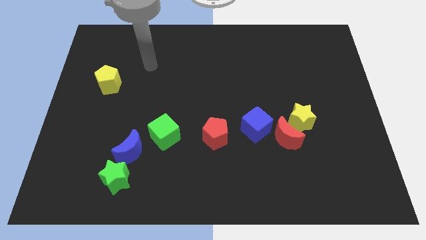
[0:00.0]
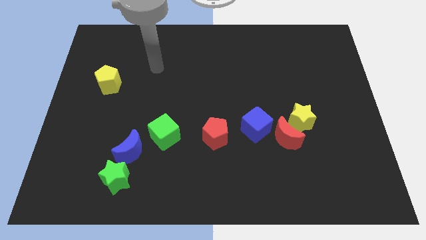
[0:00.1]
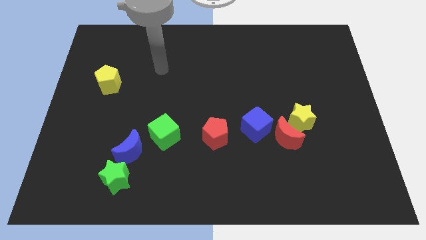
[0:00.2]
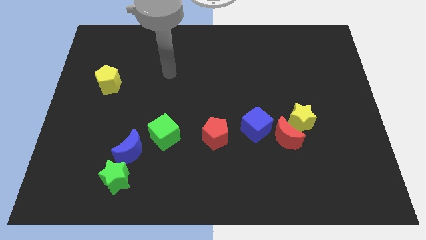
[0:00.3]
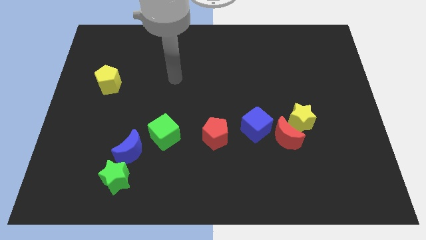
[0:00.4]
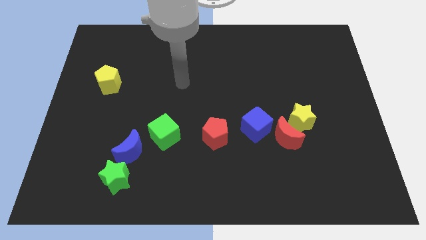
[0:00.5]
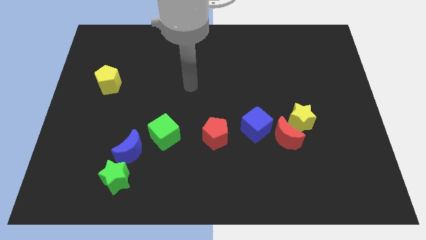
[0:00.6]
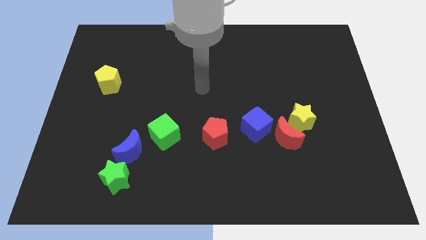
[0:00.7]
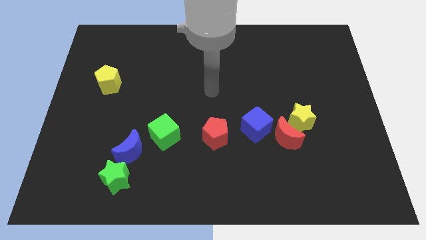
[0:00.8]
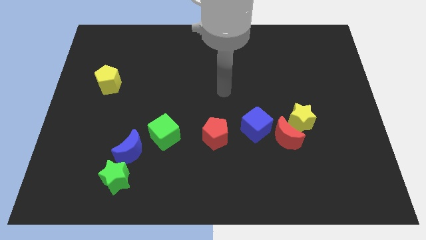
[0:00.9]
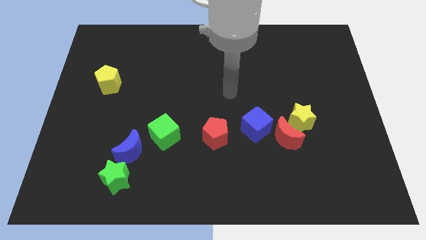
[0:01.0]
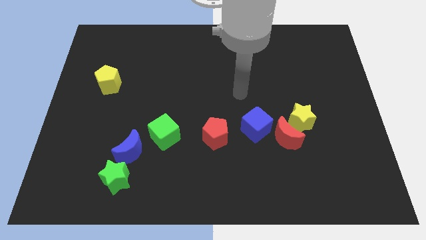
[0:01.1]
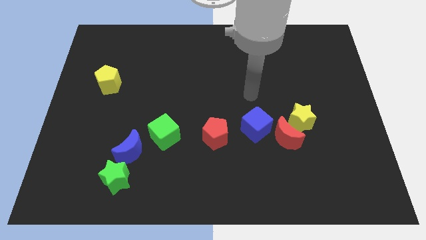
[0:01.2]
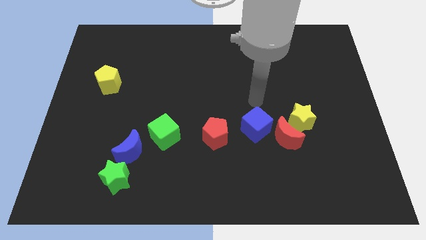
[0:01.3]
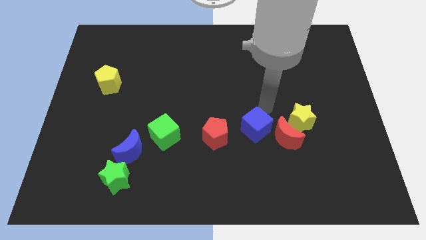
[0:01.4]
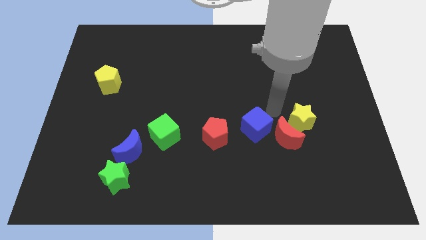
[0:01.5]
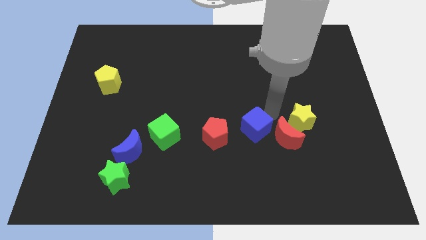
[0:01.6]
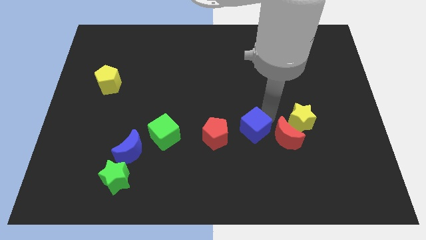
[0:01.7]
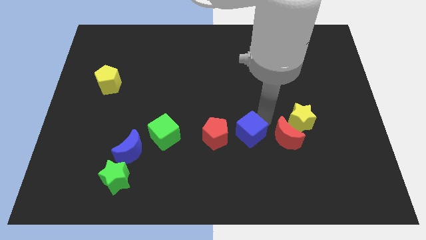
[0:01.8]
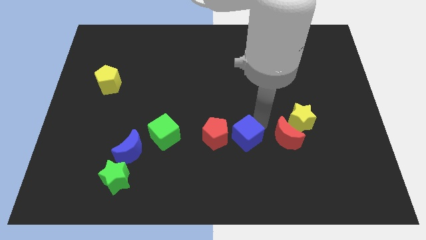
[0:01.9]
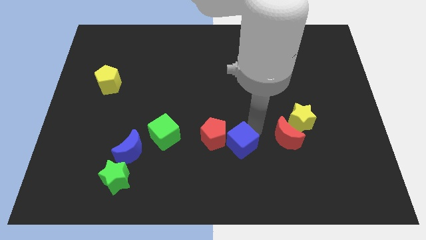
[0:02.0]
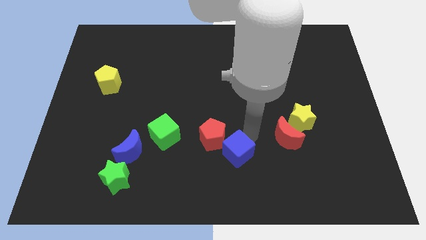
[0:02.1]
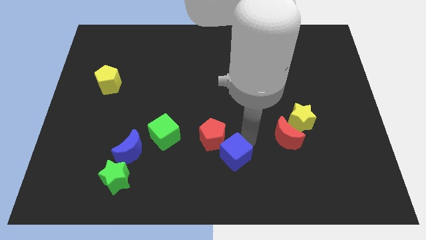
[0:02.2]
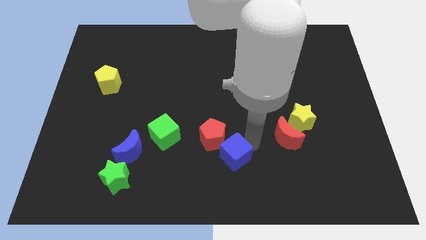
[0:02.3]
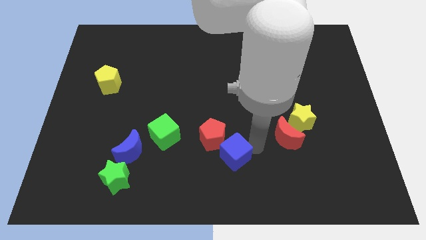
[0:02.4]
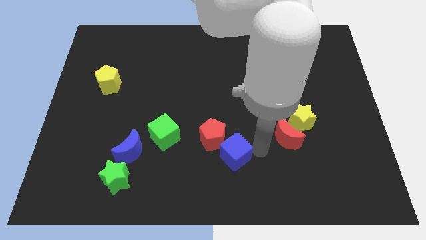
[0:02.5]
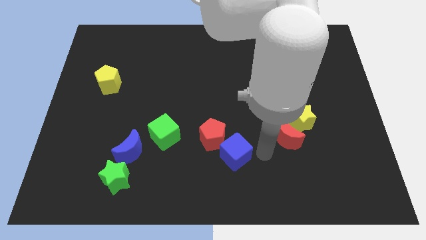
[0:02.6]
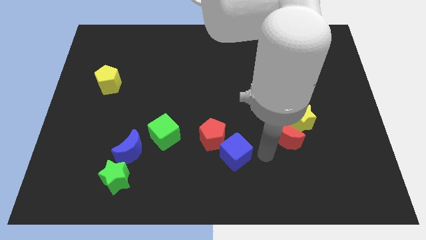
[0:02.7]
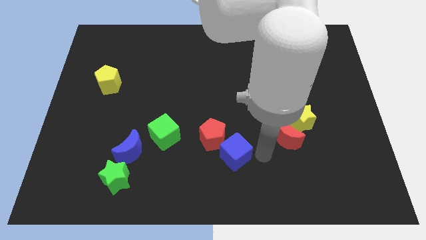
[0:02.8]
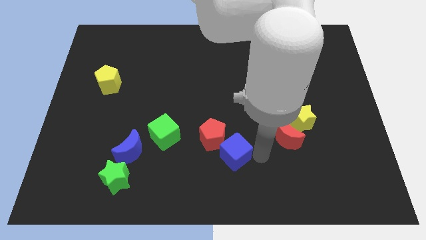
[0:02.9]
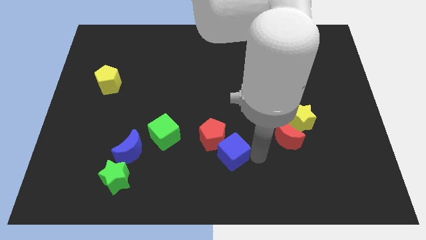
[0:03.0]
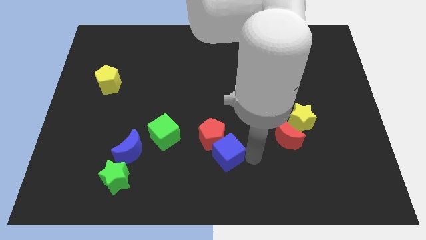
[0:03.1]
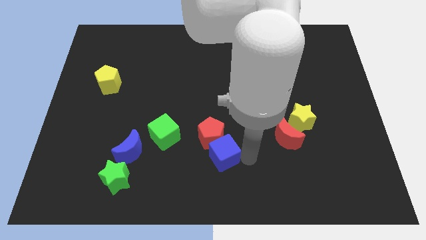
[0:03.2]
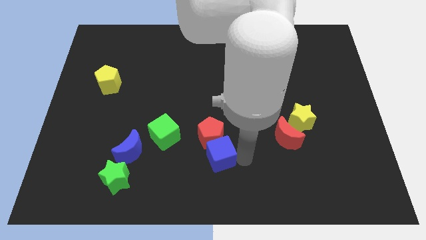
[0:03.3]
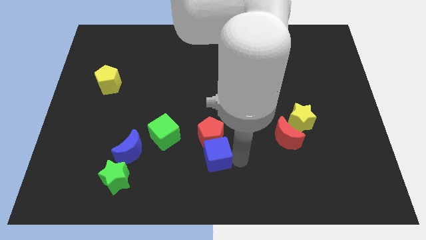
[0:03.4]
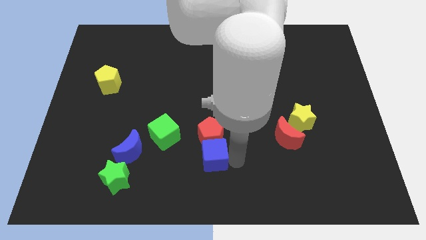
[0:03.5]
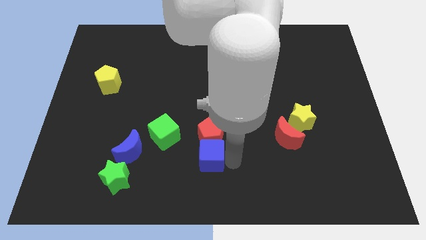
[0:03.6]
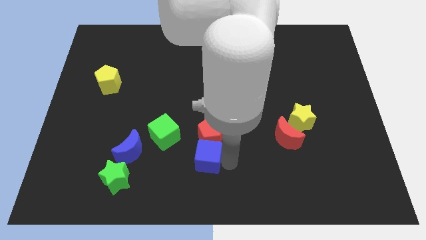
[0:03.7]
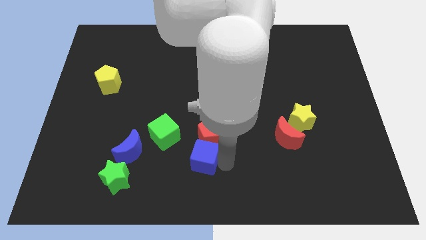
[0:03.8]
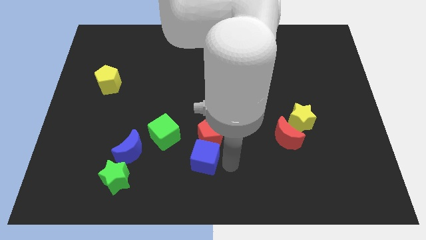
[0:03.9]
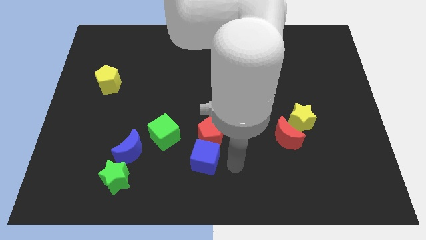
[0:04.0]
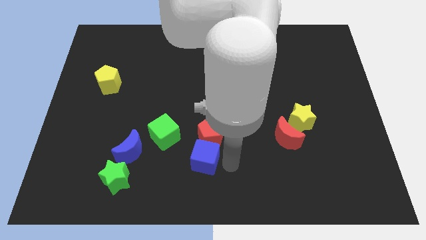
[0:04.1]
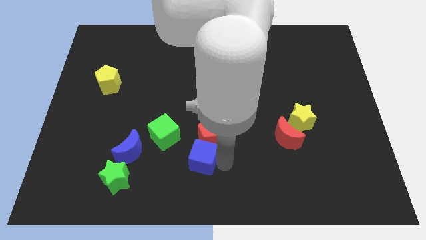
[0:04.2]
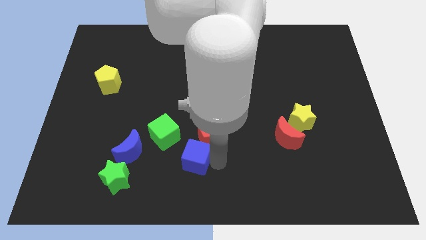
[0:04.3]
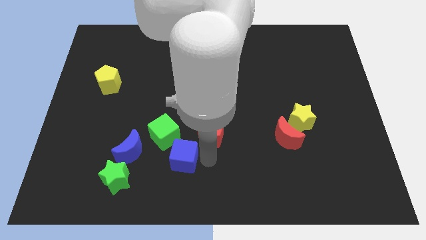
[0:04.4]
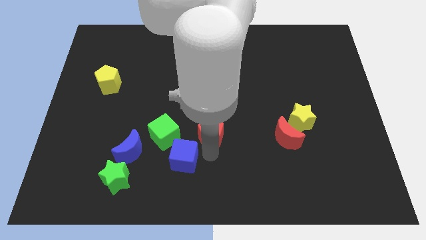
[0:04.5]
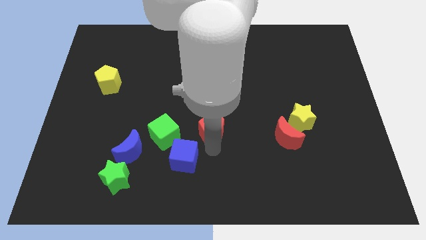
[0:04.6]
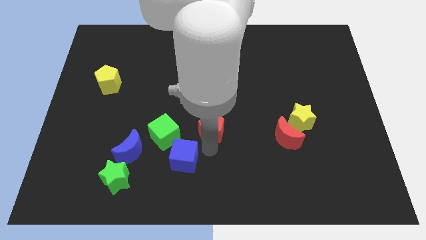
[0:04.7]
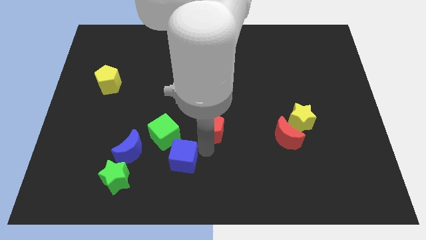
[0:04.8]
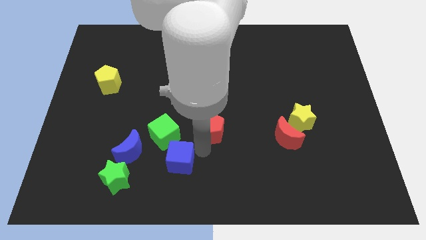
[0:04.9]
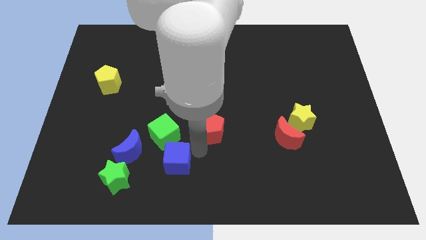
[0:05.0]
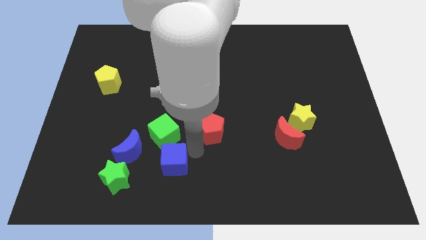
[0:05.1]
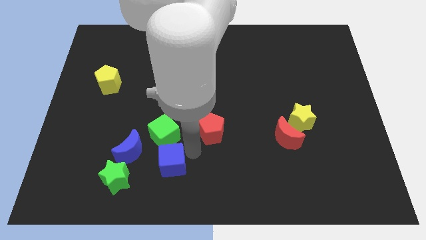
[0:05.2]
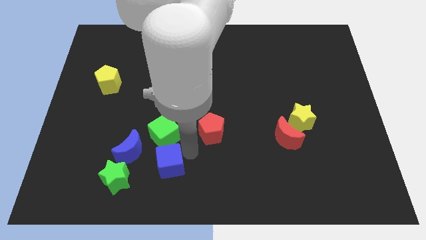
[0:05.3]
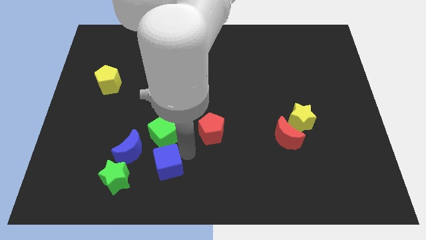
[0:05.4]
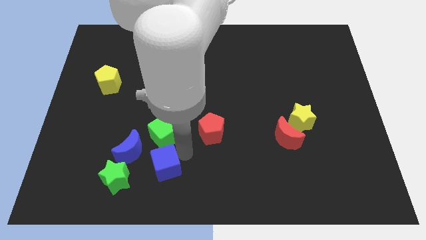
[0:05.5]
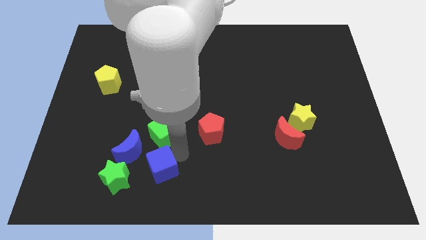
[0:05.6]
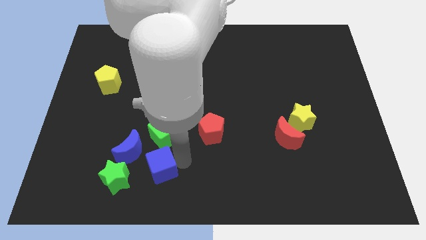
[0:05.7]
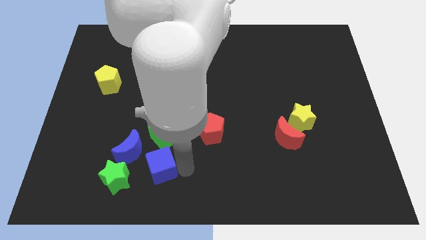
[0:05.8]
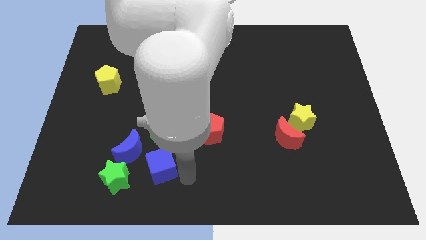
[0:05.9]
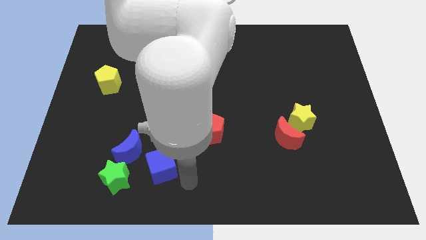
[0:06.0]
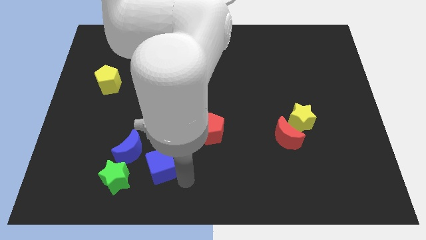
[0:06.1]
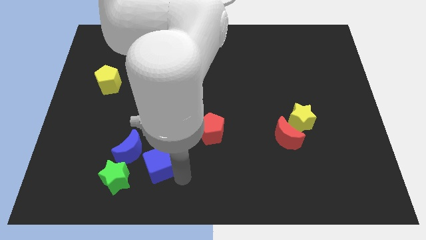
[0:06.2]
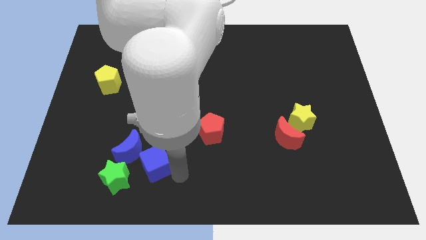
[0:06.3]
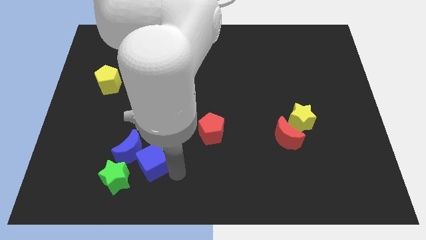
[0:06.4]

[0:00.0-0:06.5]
push the blue cube towards the blue moon

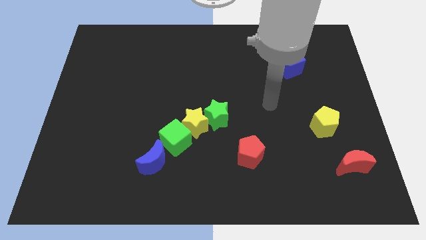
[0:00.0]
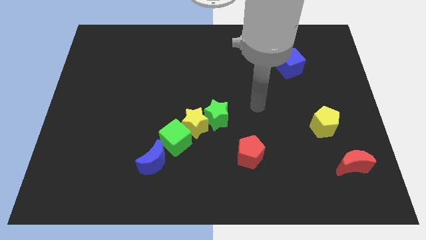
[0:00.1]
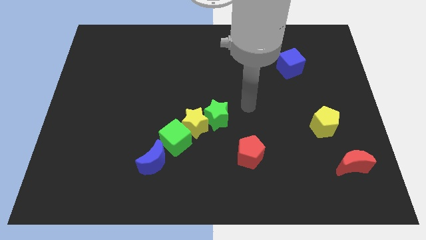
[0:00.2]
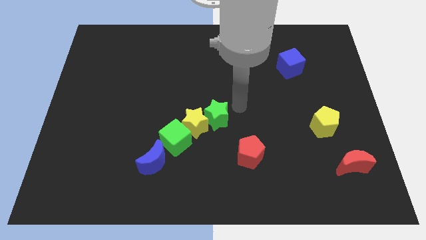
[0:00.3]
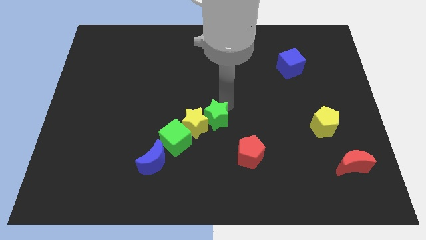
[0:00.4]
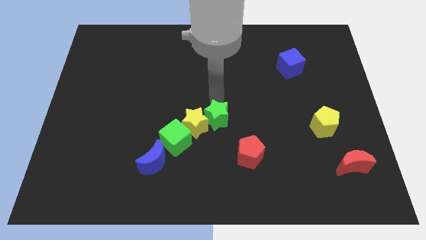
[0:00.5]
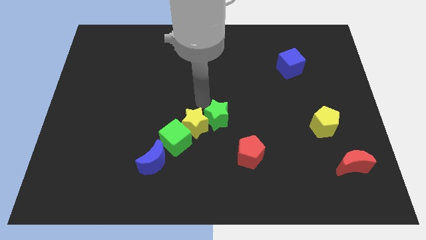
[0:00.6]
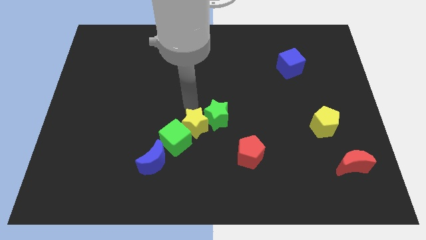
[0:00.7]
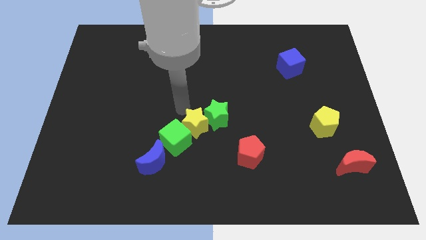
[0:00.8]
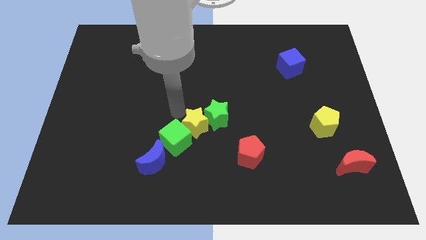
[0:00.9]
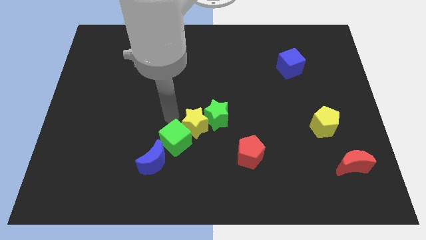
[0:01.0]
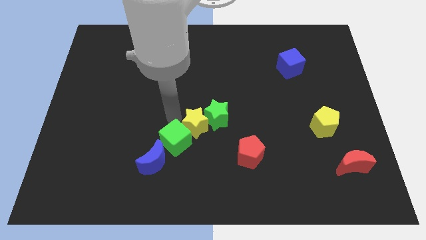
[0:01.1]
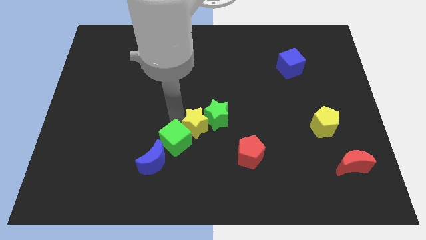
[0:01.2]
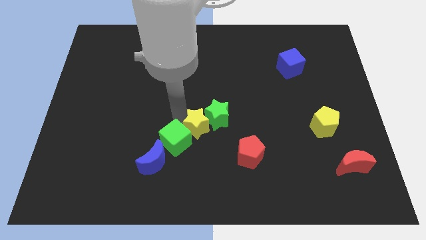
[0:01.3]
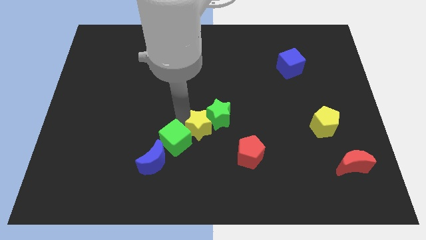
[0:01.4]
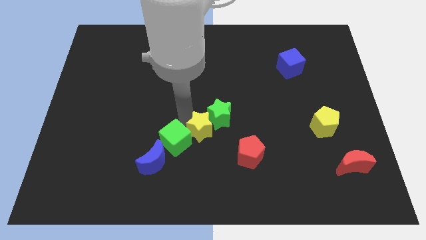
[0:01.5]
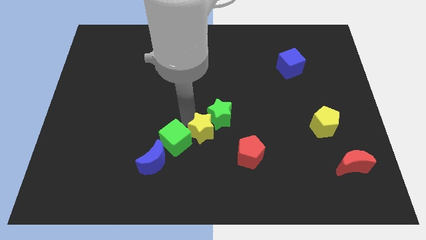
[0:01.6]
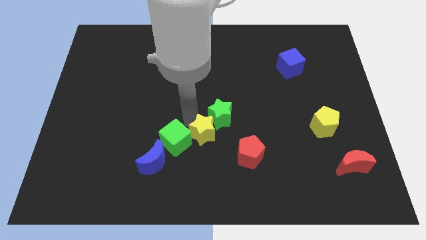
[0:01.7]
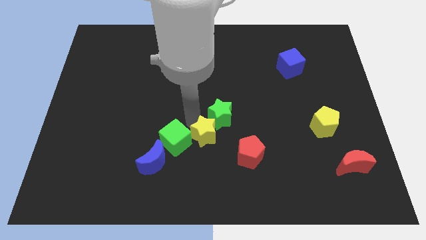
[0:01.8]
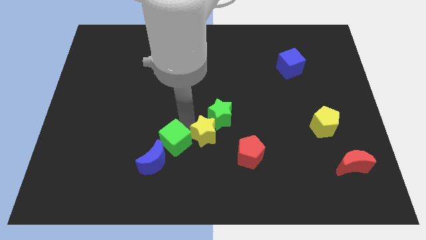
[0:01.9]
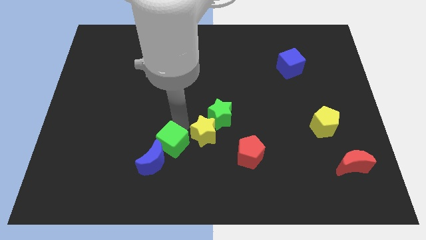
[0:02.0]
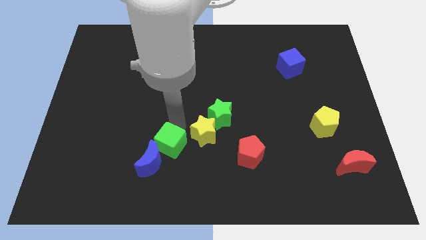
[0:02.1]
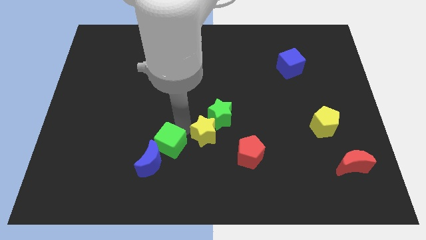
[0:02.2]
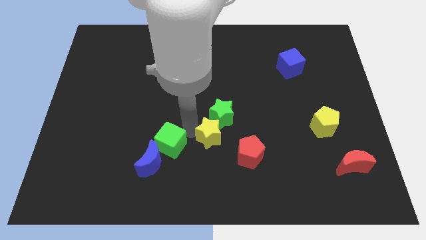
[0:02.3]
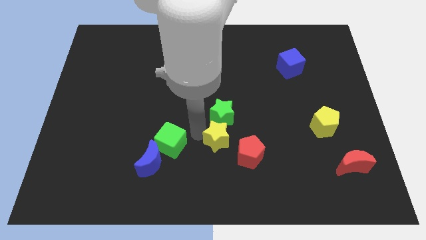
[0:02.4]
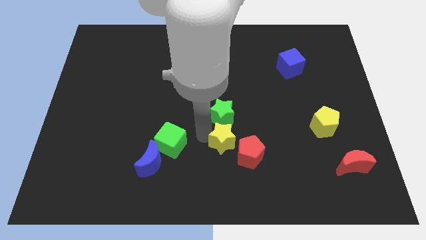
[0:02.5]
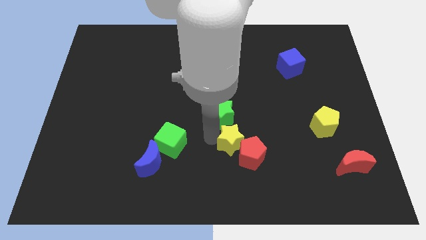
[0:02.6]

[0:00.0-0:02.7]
push the yellow star next to the red pentagon
